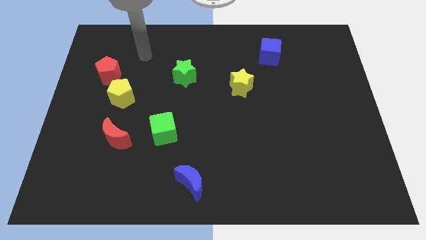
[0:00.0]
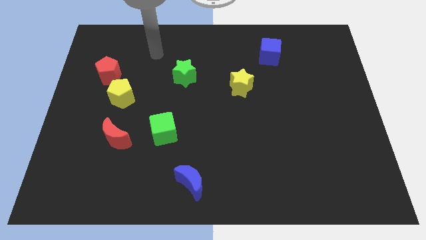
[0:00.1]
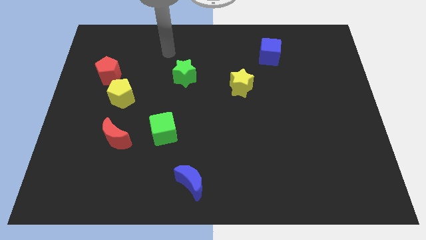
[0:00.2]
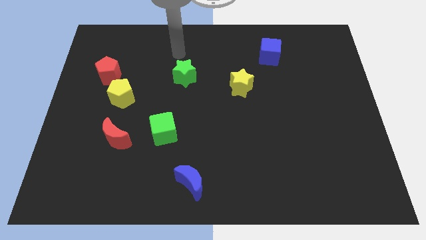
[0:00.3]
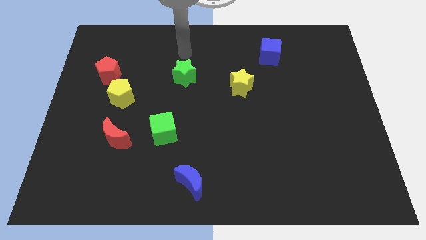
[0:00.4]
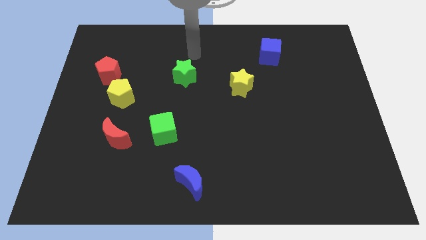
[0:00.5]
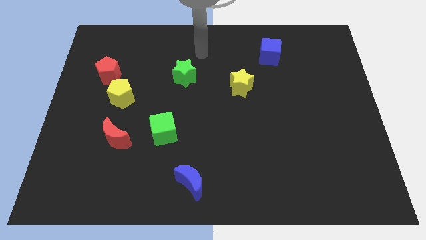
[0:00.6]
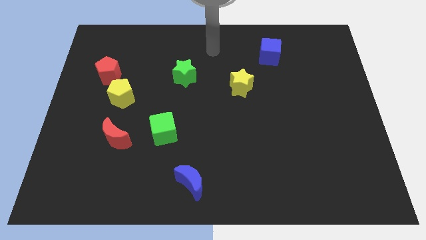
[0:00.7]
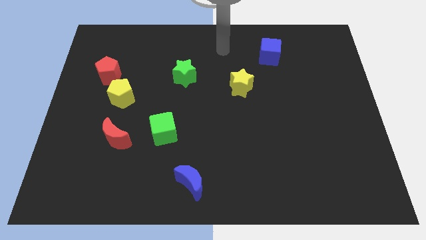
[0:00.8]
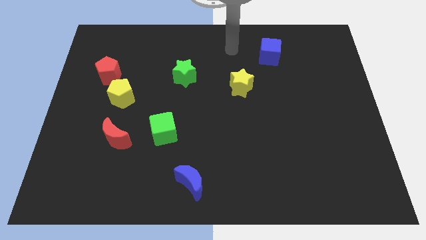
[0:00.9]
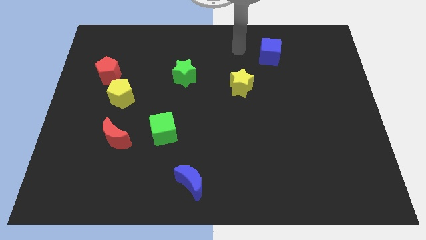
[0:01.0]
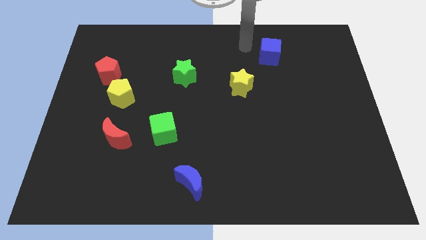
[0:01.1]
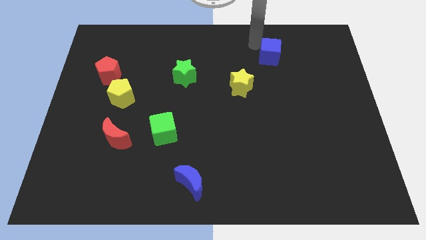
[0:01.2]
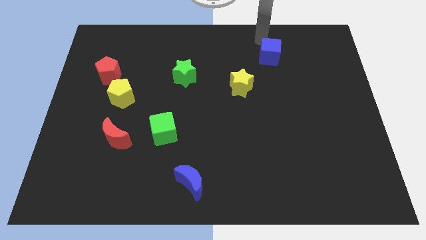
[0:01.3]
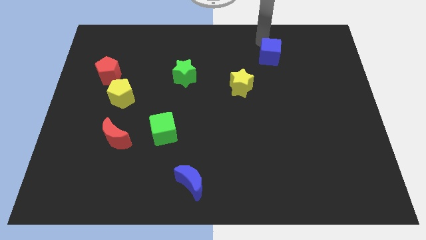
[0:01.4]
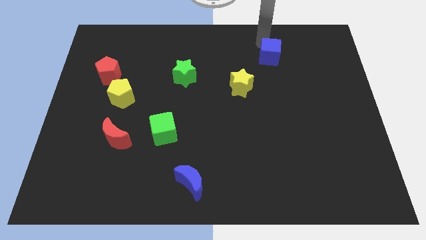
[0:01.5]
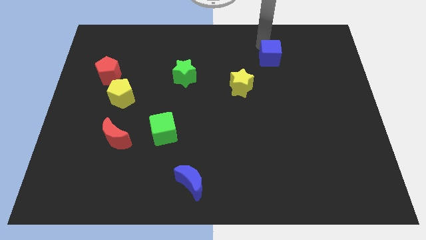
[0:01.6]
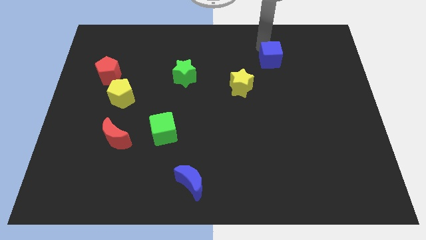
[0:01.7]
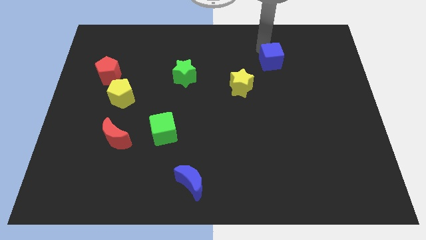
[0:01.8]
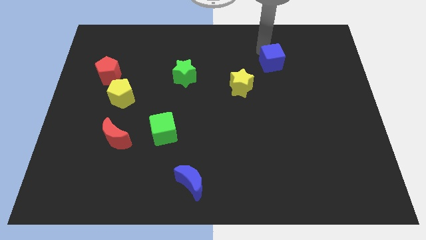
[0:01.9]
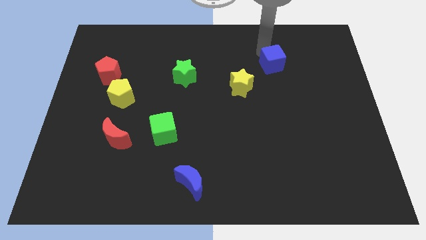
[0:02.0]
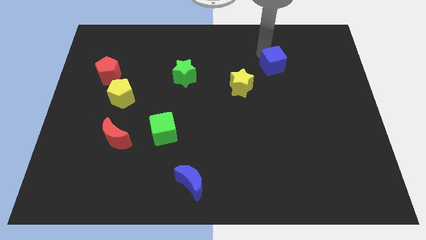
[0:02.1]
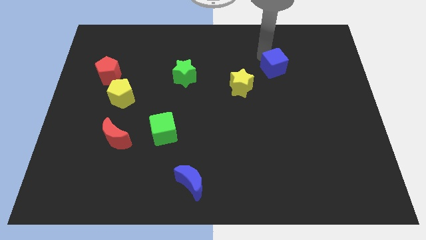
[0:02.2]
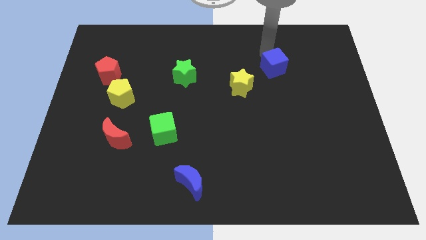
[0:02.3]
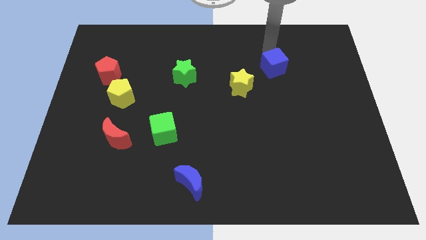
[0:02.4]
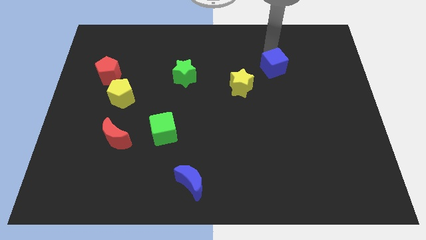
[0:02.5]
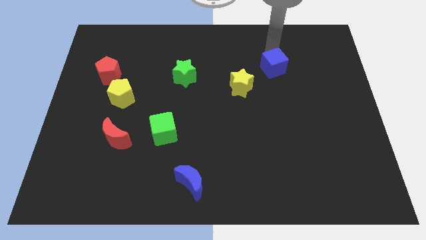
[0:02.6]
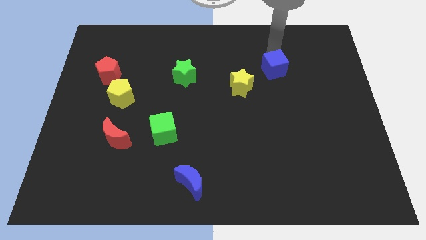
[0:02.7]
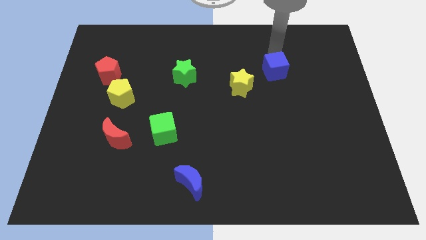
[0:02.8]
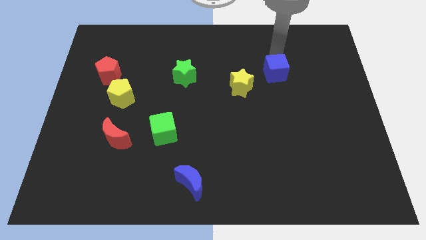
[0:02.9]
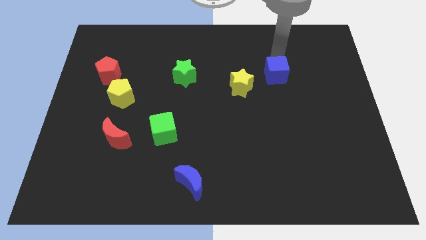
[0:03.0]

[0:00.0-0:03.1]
slightly move the blue cube down

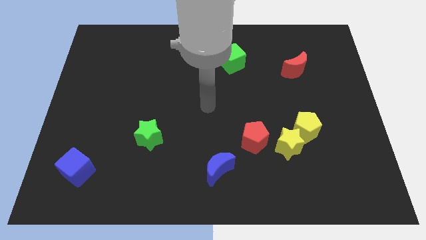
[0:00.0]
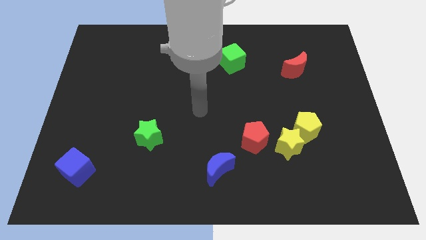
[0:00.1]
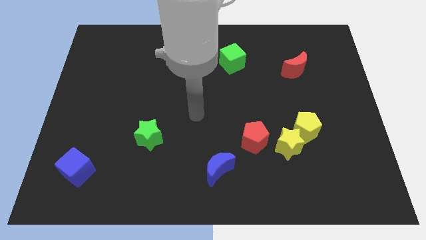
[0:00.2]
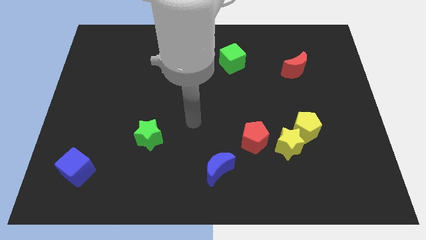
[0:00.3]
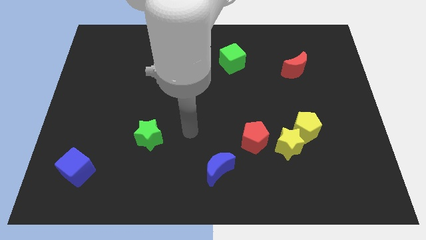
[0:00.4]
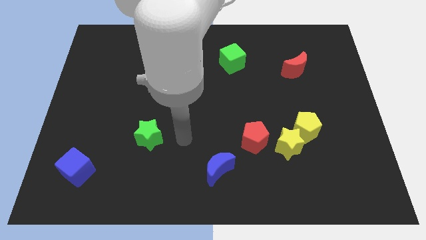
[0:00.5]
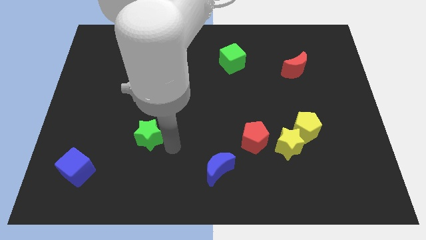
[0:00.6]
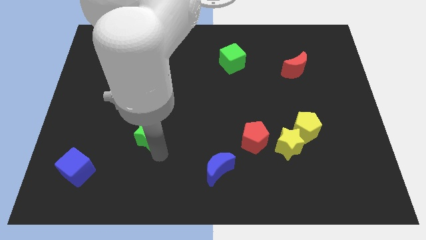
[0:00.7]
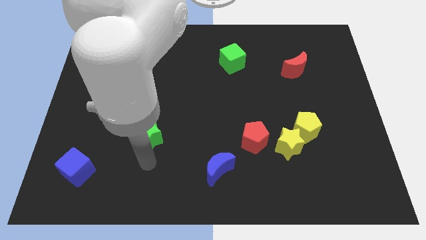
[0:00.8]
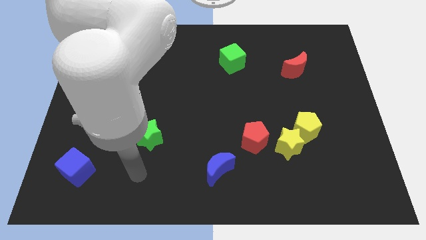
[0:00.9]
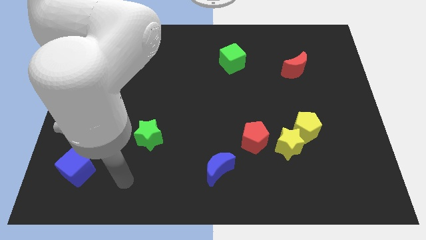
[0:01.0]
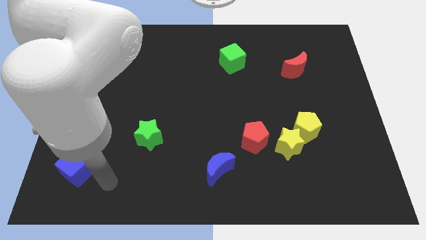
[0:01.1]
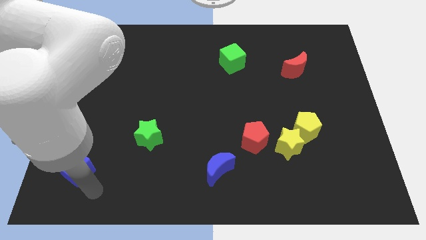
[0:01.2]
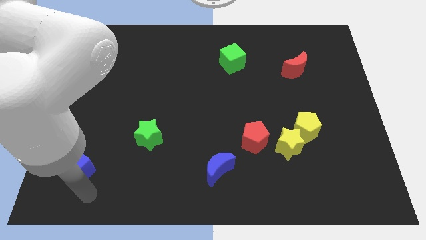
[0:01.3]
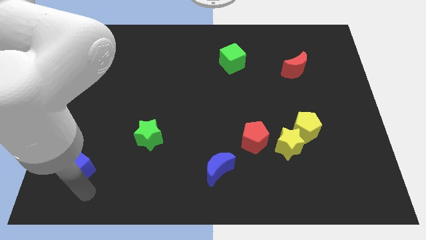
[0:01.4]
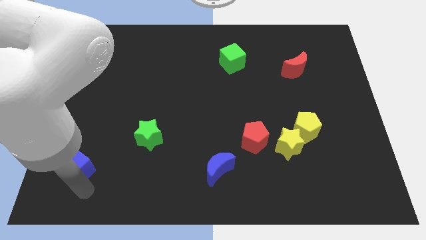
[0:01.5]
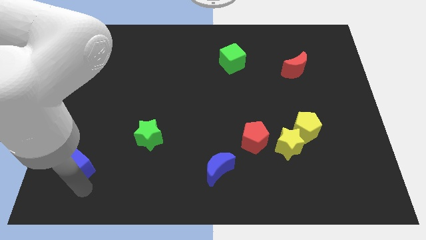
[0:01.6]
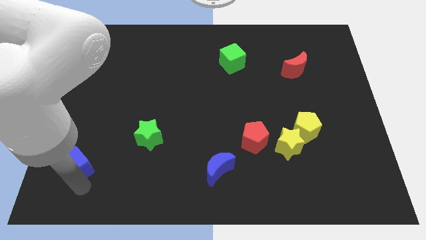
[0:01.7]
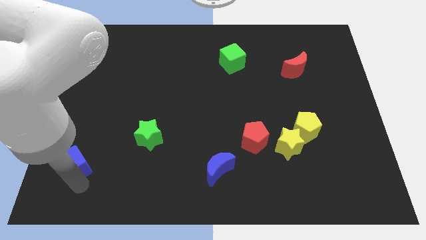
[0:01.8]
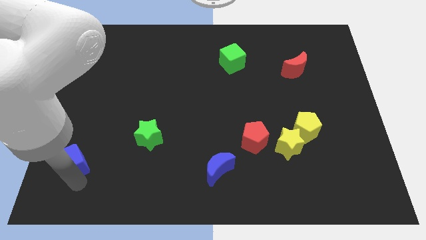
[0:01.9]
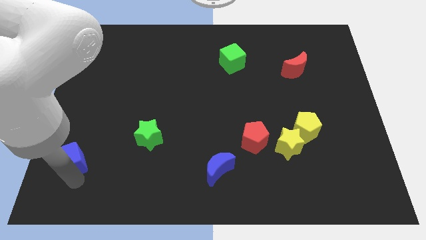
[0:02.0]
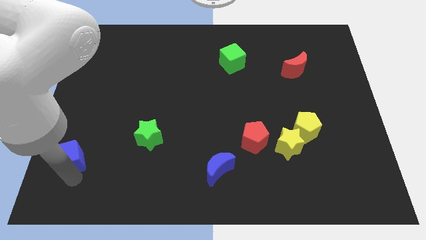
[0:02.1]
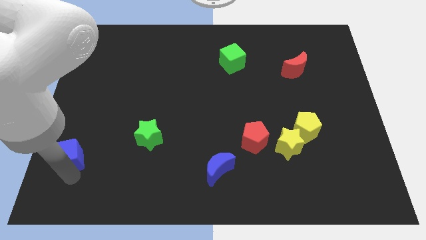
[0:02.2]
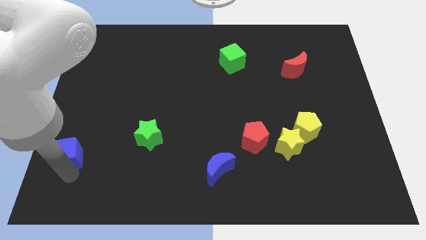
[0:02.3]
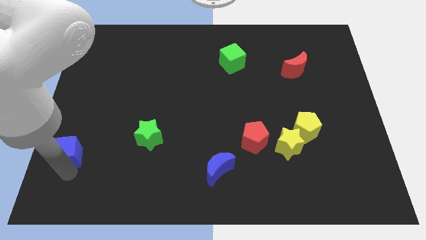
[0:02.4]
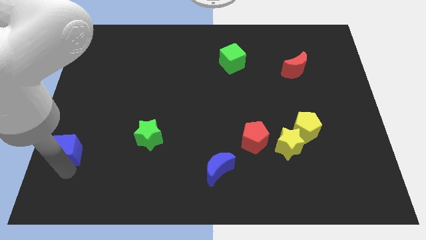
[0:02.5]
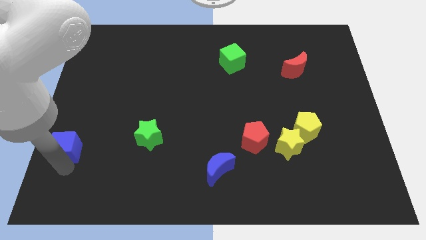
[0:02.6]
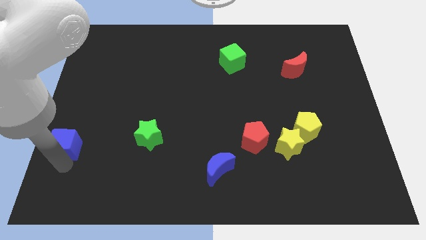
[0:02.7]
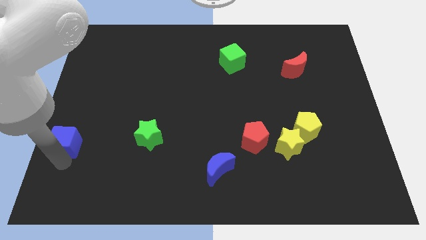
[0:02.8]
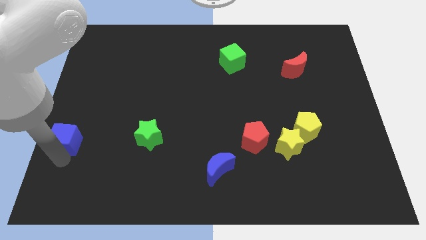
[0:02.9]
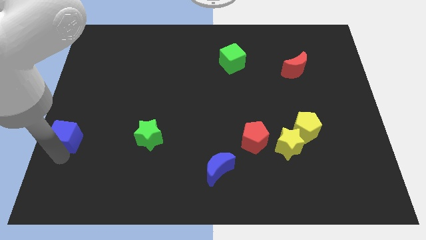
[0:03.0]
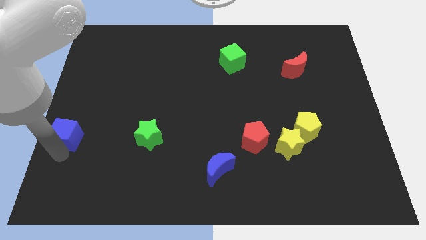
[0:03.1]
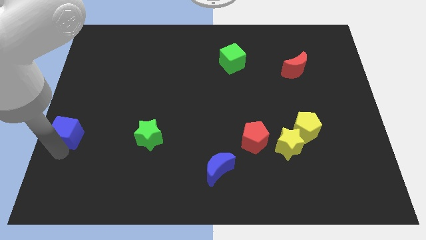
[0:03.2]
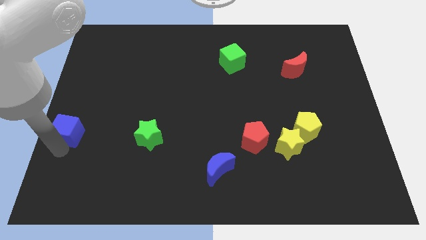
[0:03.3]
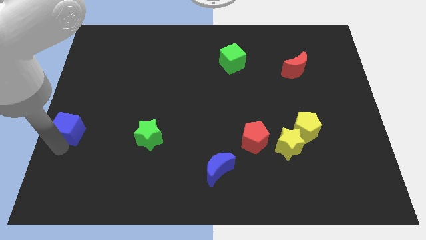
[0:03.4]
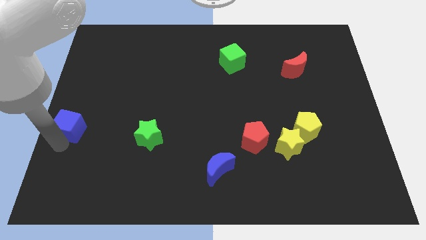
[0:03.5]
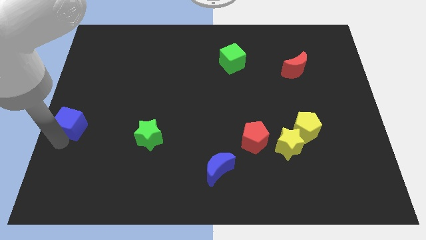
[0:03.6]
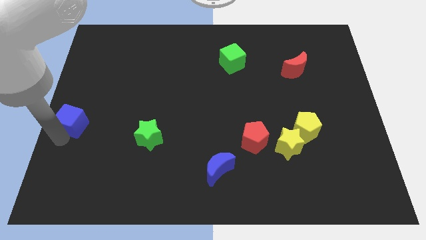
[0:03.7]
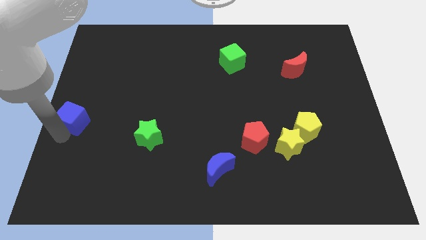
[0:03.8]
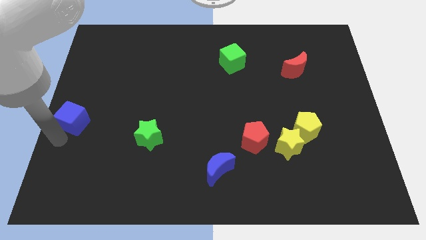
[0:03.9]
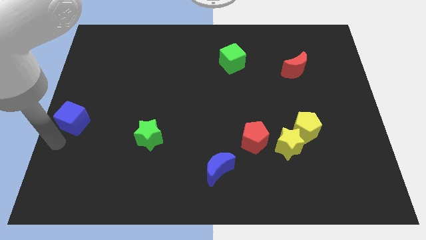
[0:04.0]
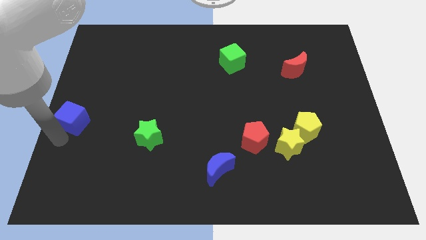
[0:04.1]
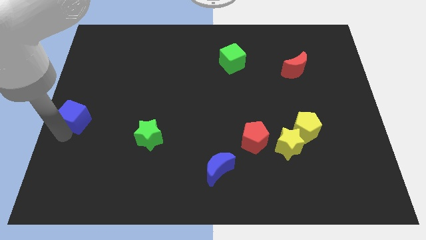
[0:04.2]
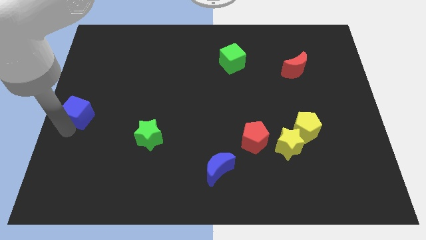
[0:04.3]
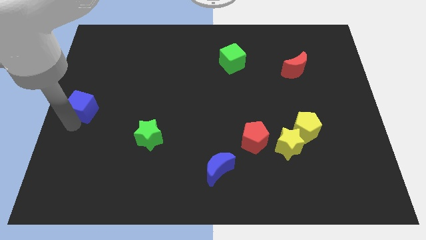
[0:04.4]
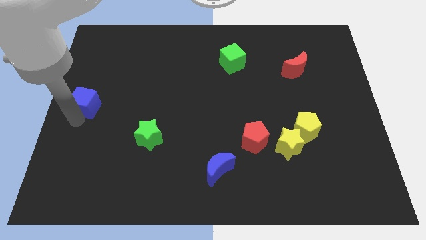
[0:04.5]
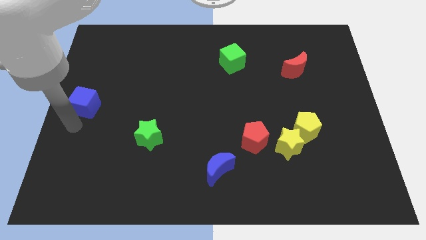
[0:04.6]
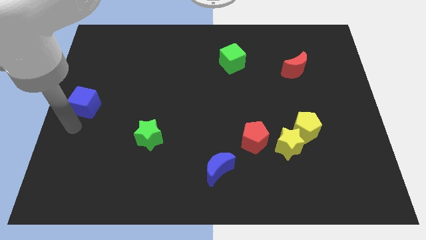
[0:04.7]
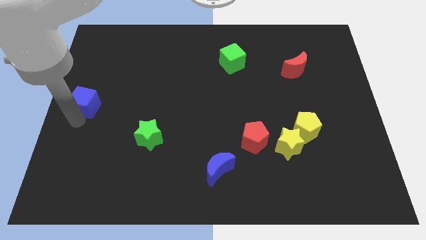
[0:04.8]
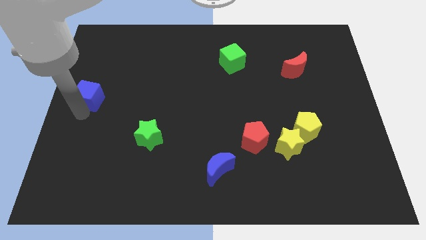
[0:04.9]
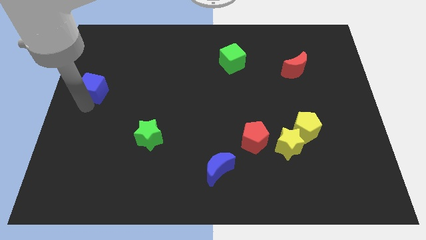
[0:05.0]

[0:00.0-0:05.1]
move the blue cube upwards
